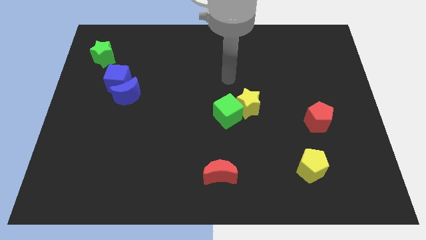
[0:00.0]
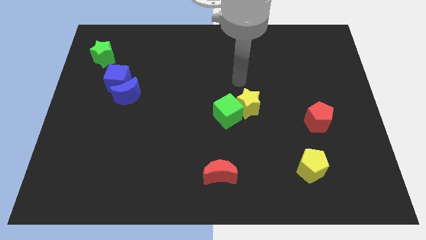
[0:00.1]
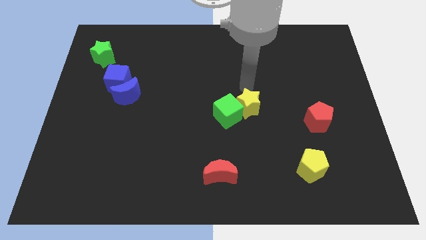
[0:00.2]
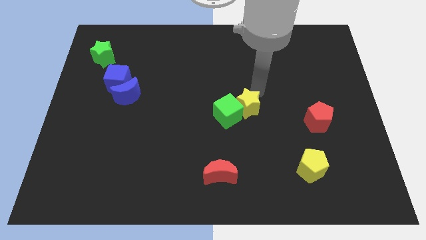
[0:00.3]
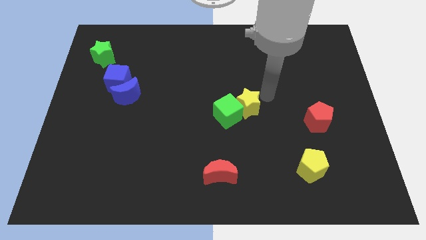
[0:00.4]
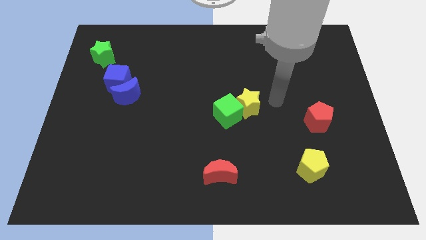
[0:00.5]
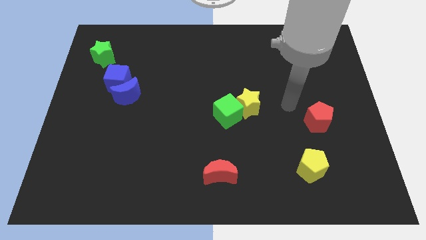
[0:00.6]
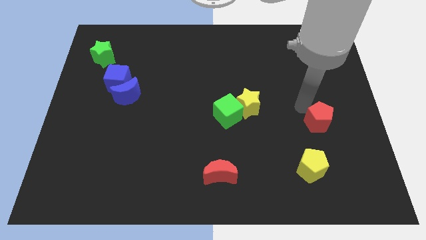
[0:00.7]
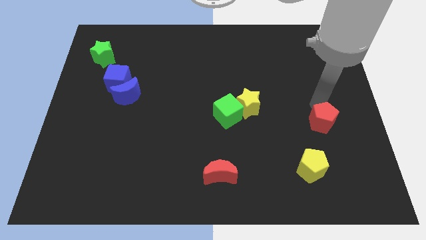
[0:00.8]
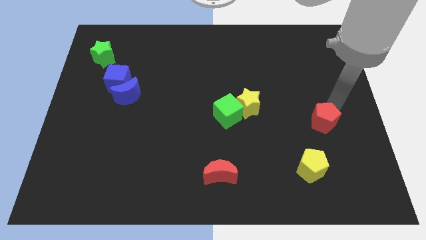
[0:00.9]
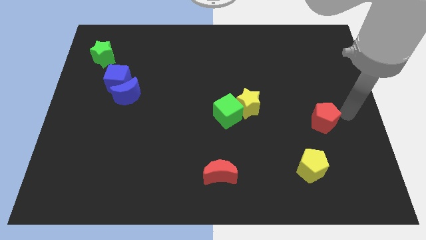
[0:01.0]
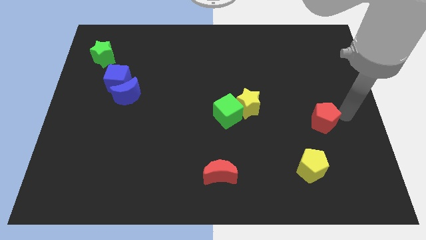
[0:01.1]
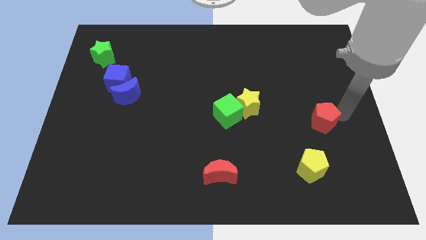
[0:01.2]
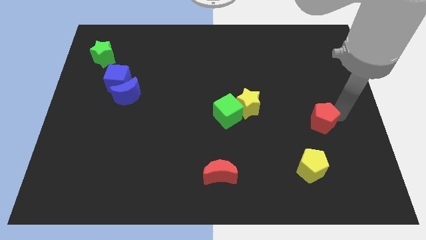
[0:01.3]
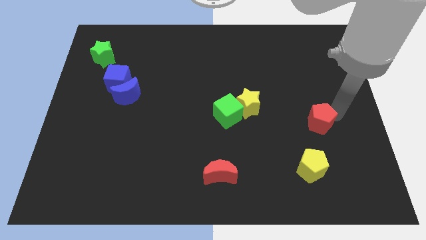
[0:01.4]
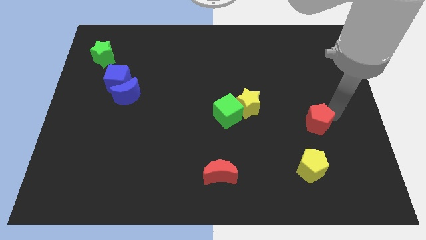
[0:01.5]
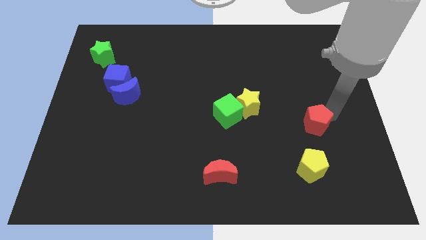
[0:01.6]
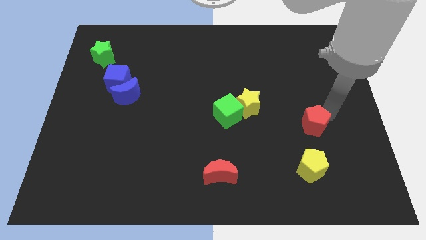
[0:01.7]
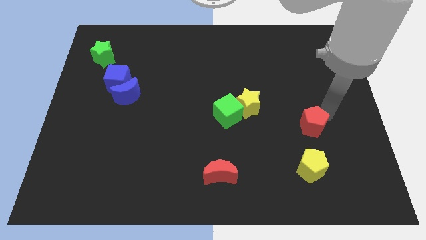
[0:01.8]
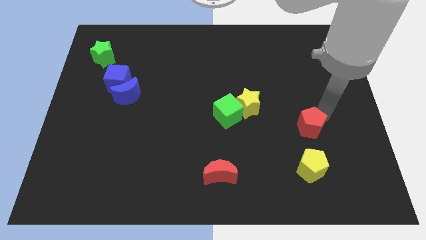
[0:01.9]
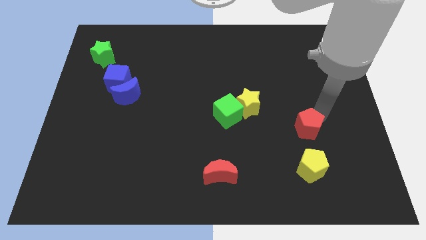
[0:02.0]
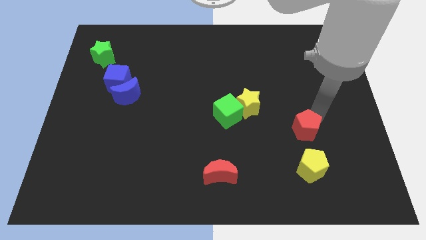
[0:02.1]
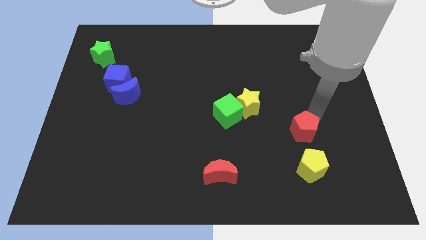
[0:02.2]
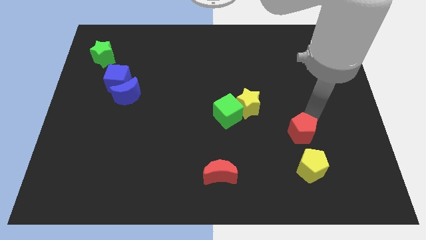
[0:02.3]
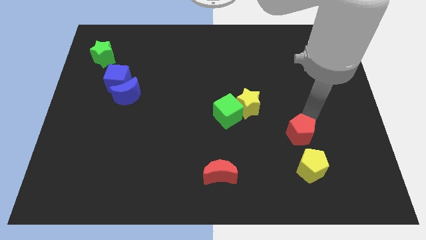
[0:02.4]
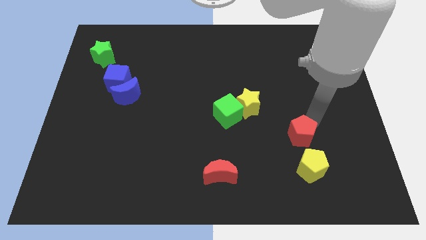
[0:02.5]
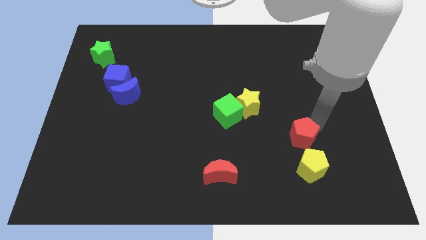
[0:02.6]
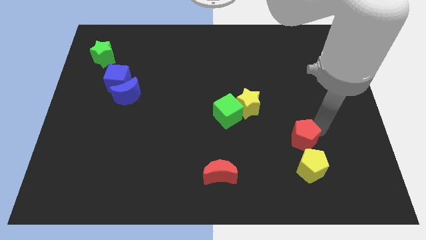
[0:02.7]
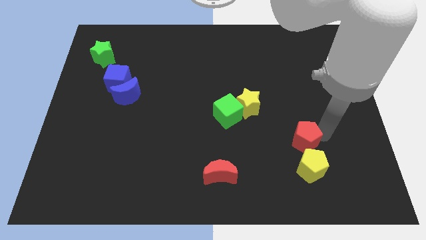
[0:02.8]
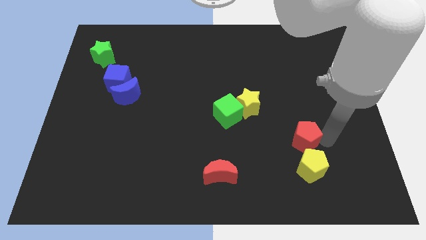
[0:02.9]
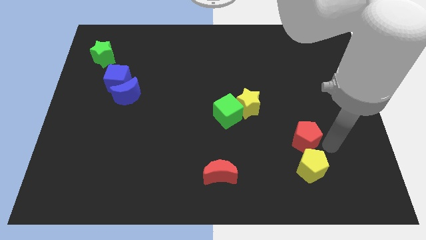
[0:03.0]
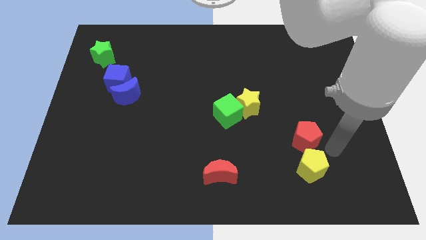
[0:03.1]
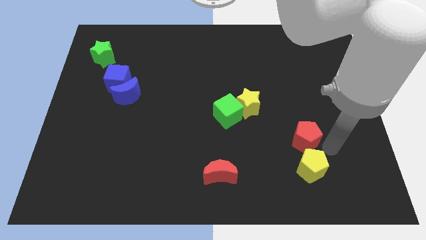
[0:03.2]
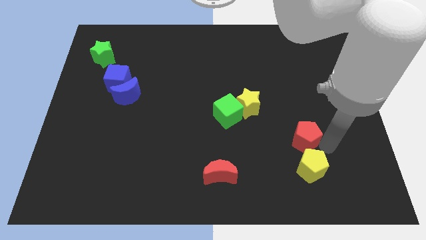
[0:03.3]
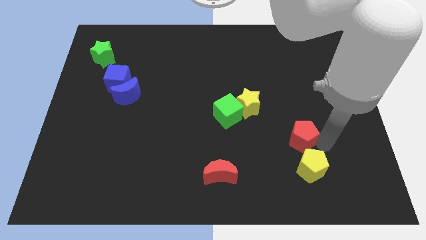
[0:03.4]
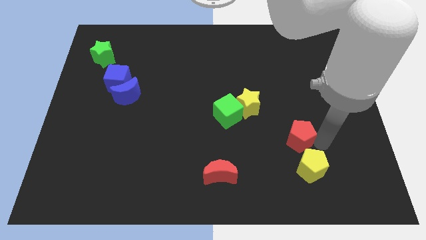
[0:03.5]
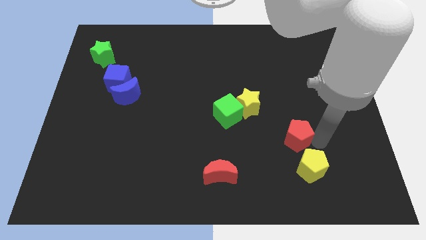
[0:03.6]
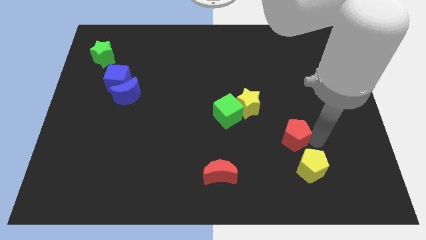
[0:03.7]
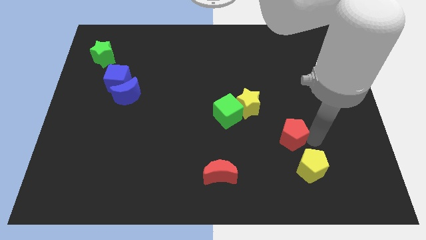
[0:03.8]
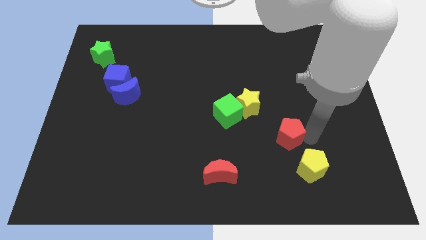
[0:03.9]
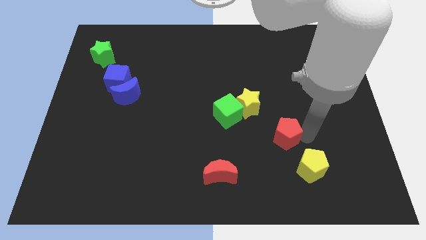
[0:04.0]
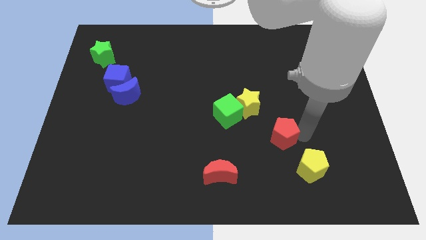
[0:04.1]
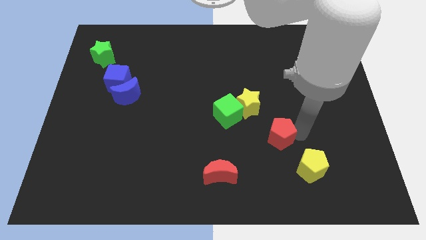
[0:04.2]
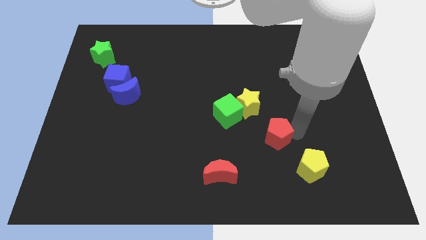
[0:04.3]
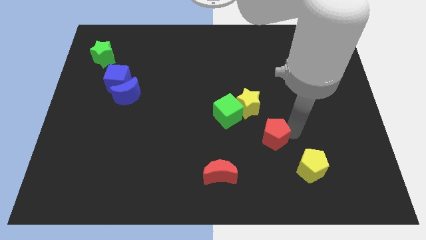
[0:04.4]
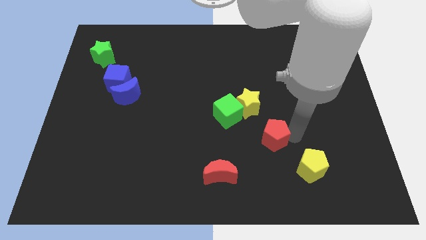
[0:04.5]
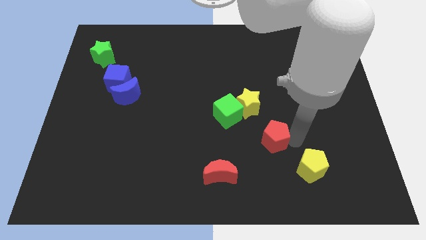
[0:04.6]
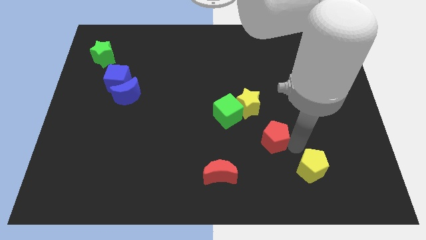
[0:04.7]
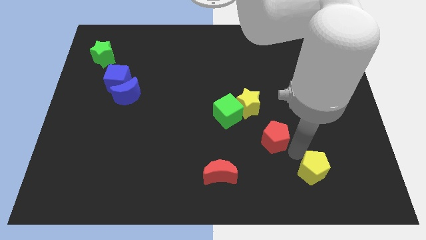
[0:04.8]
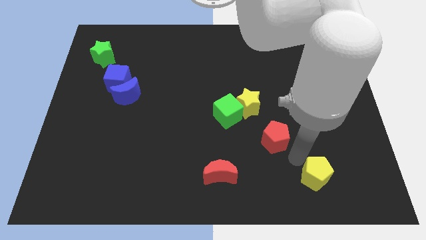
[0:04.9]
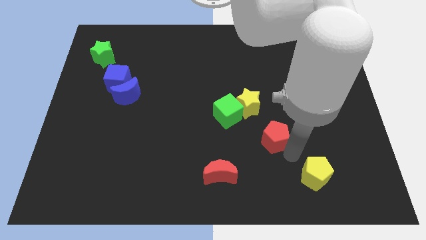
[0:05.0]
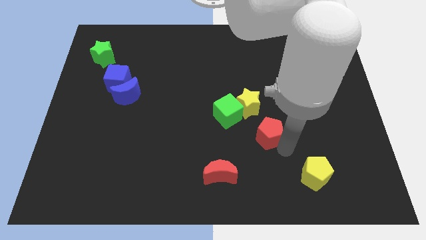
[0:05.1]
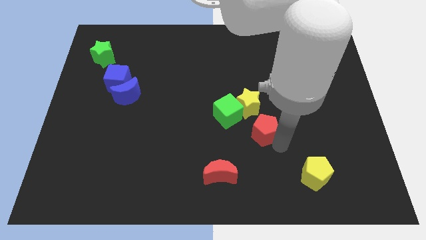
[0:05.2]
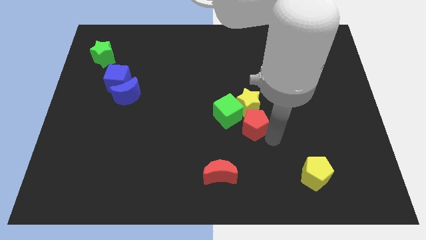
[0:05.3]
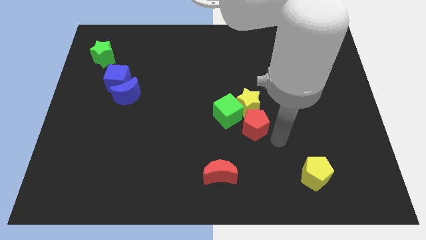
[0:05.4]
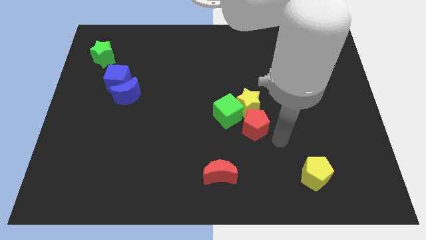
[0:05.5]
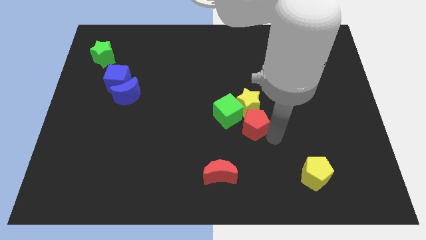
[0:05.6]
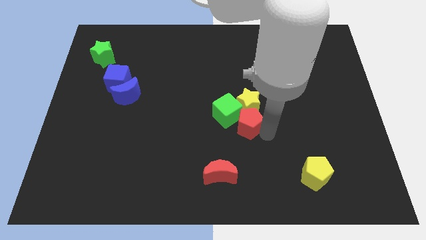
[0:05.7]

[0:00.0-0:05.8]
put the red pentagon to the green cube

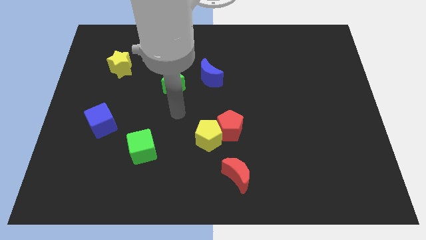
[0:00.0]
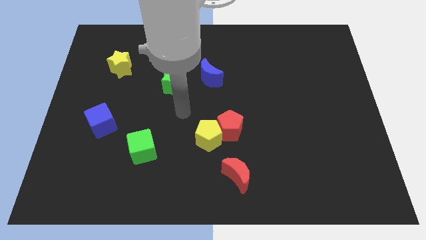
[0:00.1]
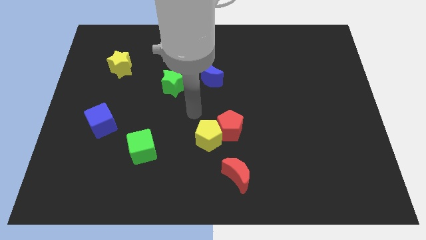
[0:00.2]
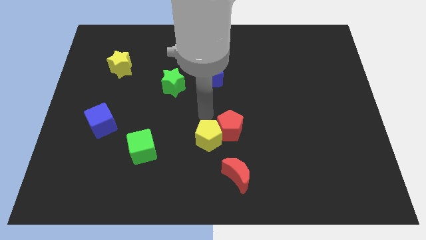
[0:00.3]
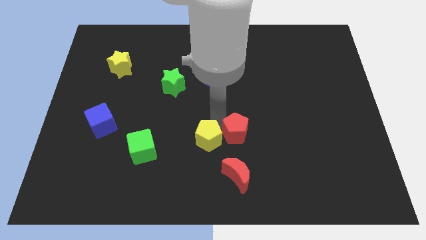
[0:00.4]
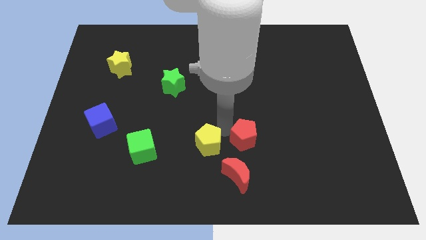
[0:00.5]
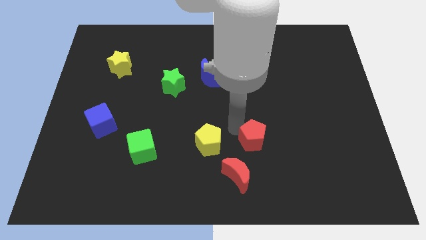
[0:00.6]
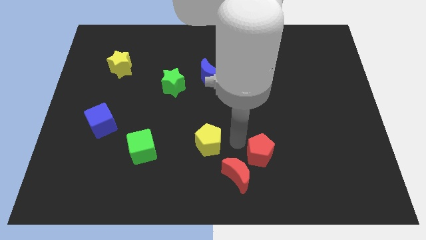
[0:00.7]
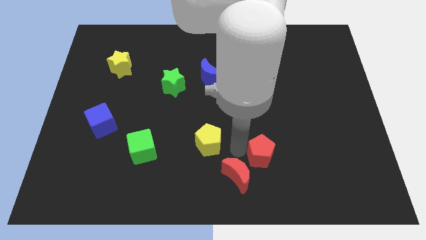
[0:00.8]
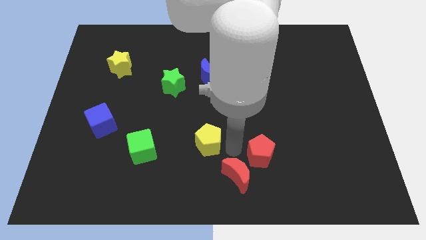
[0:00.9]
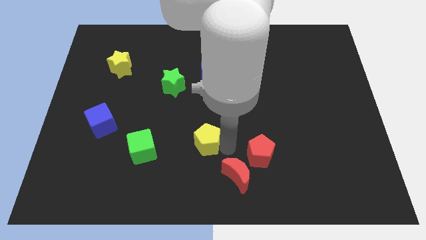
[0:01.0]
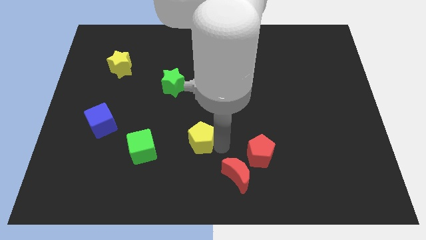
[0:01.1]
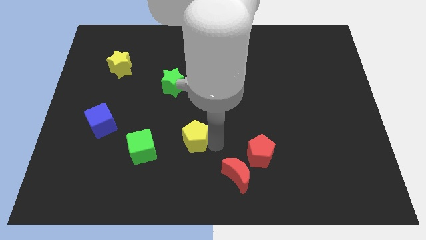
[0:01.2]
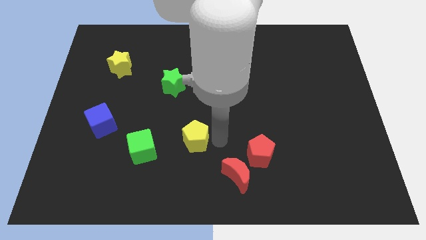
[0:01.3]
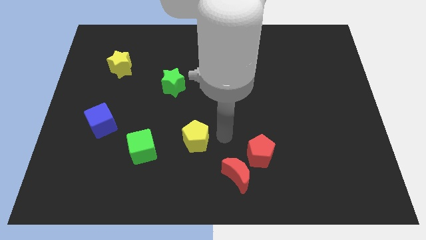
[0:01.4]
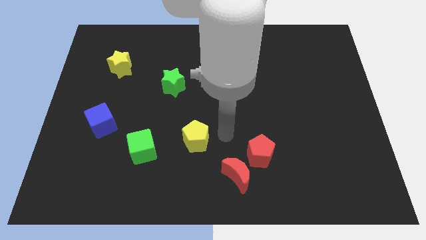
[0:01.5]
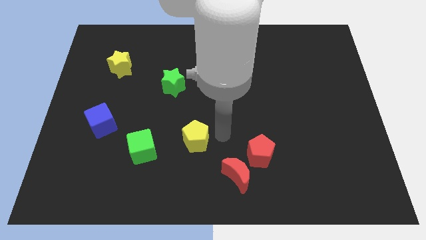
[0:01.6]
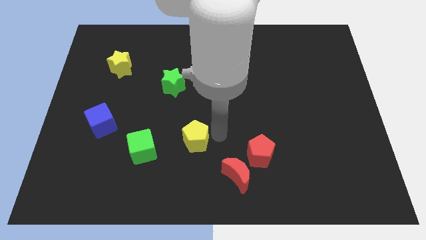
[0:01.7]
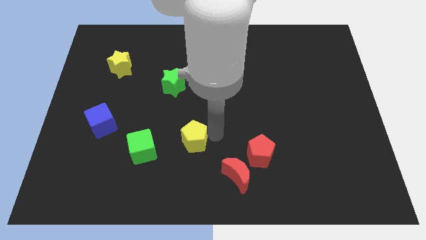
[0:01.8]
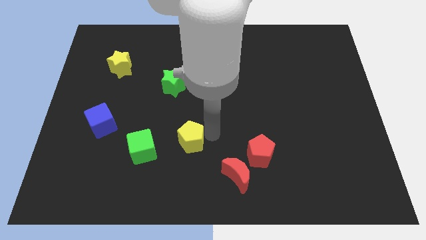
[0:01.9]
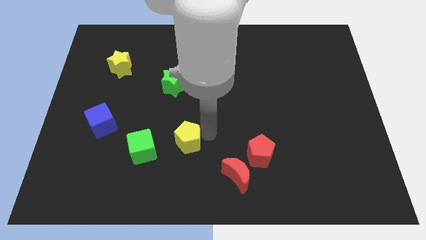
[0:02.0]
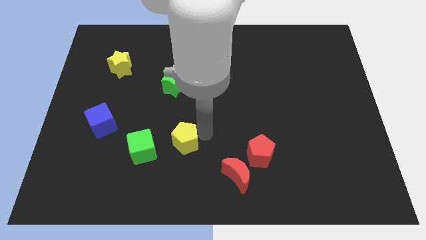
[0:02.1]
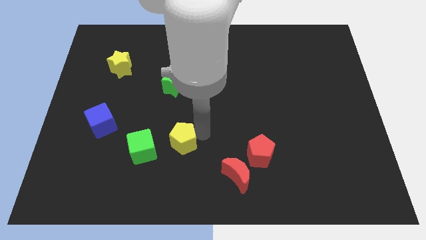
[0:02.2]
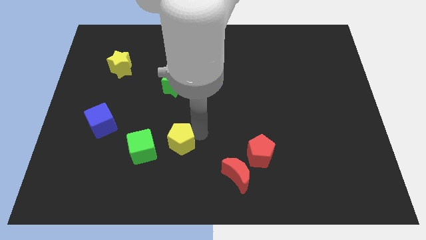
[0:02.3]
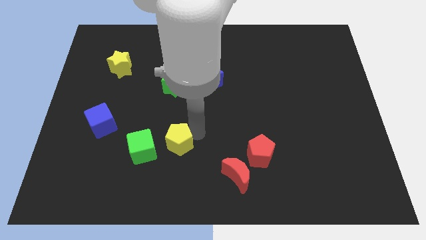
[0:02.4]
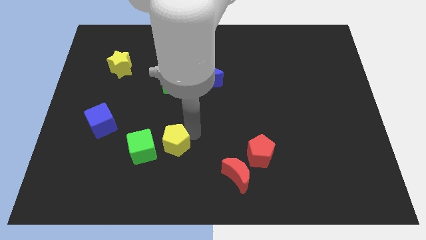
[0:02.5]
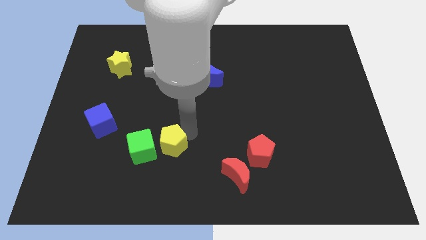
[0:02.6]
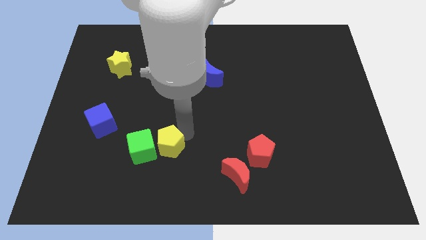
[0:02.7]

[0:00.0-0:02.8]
move the yellow pentagon towards the green cube
